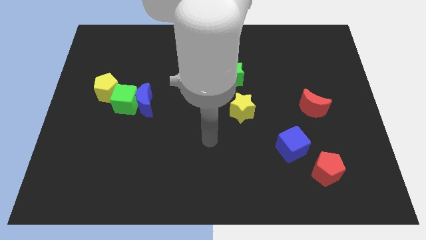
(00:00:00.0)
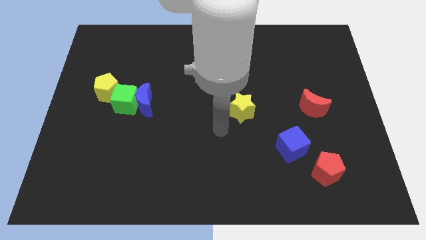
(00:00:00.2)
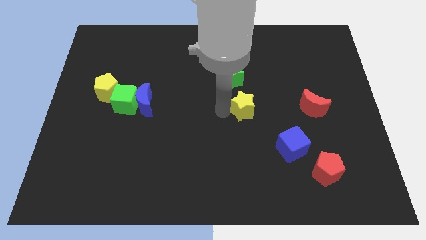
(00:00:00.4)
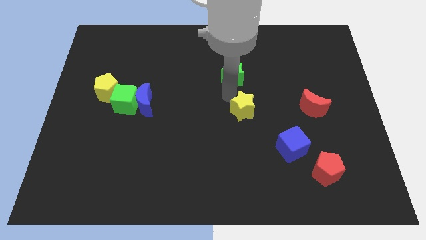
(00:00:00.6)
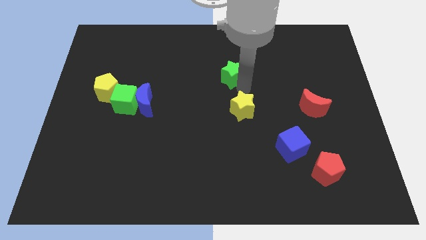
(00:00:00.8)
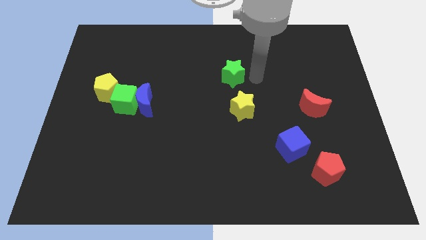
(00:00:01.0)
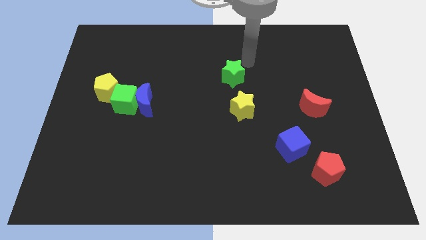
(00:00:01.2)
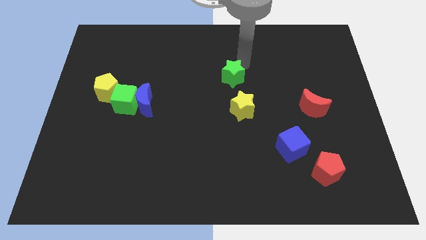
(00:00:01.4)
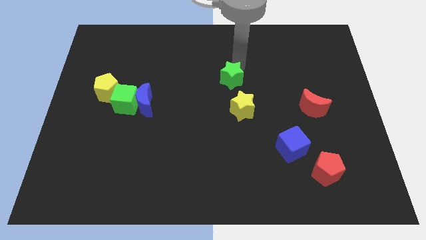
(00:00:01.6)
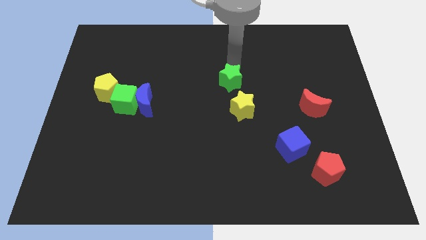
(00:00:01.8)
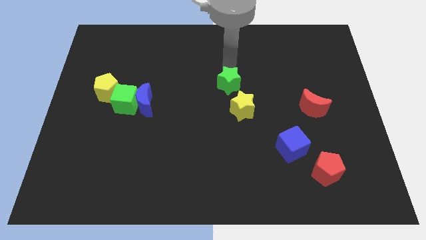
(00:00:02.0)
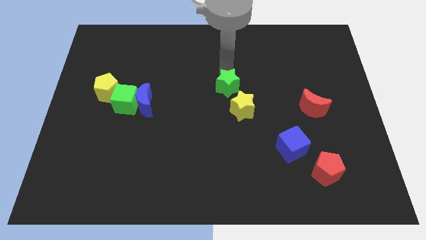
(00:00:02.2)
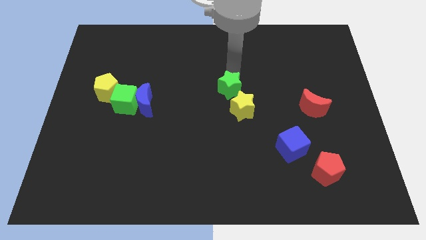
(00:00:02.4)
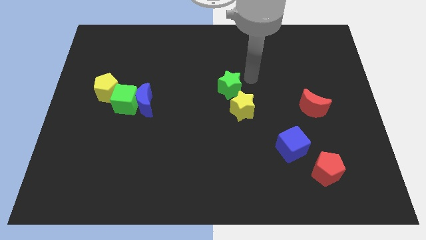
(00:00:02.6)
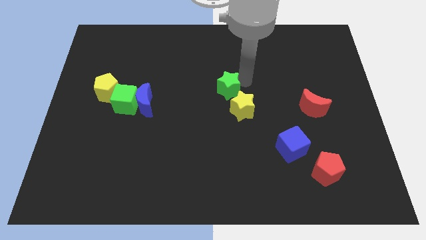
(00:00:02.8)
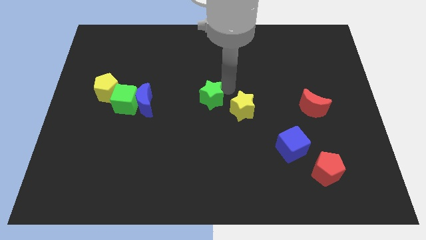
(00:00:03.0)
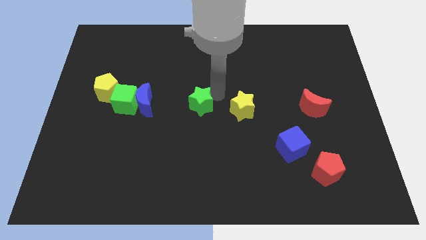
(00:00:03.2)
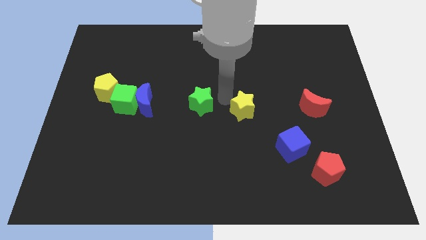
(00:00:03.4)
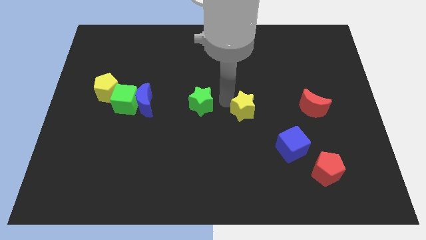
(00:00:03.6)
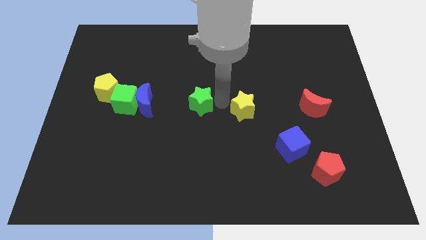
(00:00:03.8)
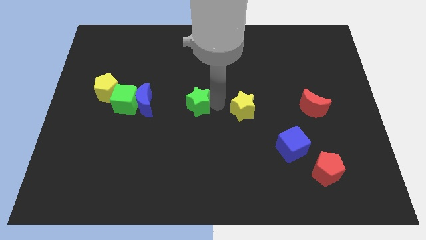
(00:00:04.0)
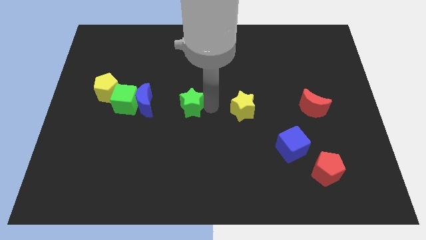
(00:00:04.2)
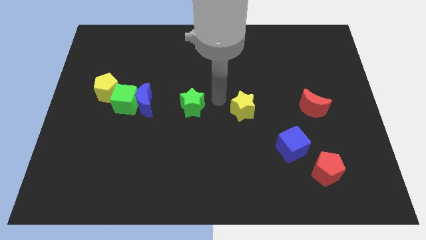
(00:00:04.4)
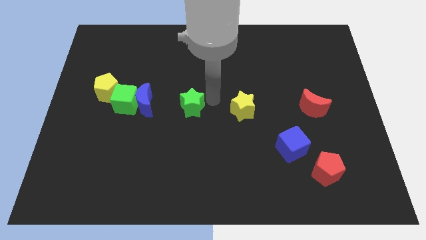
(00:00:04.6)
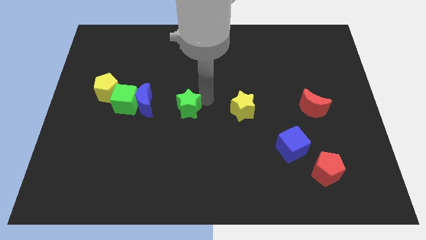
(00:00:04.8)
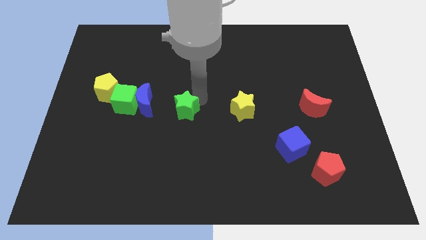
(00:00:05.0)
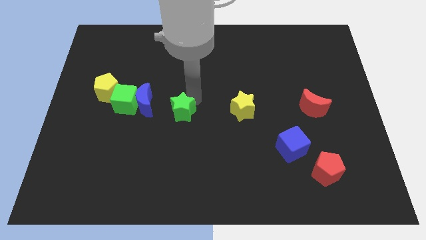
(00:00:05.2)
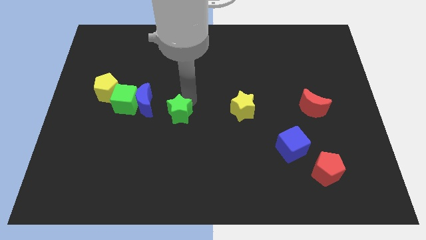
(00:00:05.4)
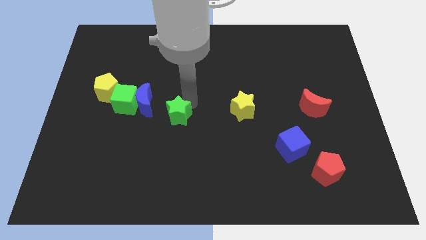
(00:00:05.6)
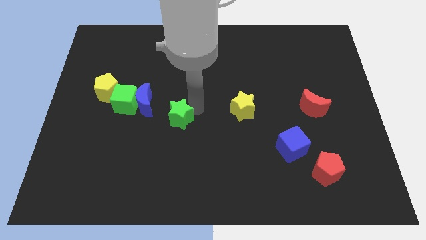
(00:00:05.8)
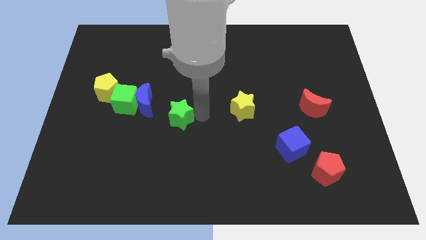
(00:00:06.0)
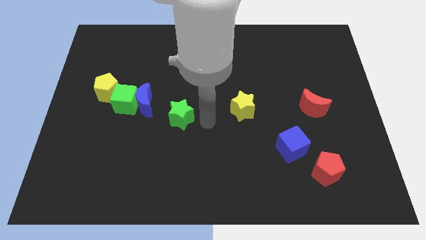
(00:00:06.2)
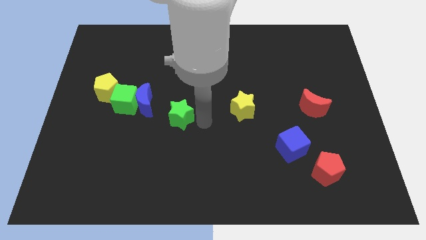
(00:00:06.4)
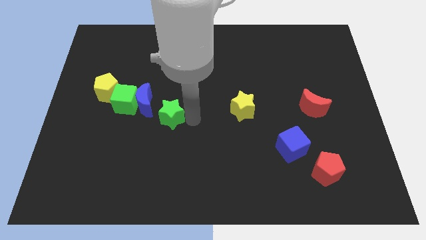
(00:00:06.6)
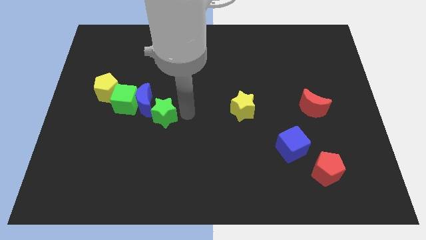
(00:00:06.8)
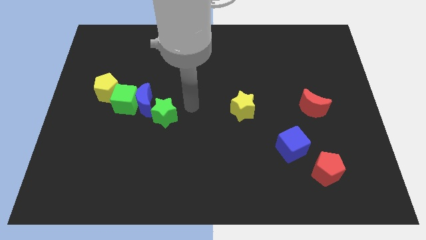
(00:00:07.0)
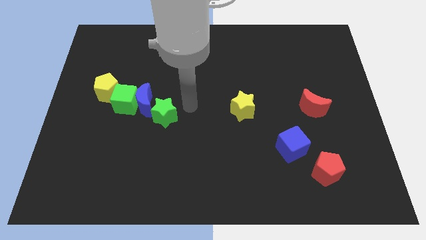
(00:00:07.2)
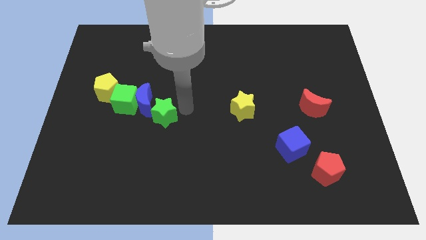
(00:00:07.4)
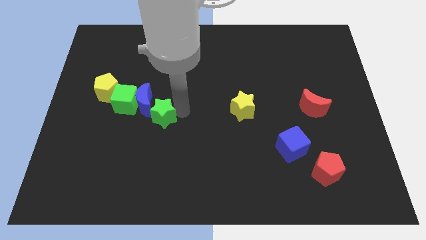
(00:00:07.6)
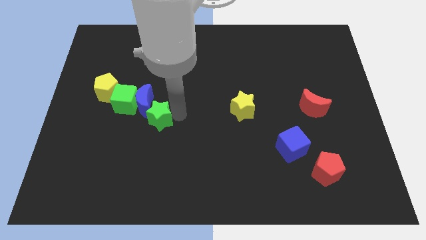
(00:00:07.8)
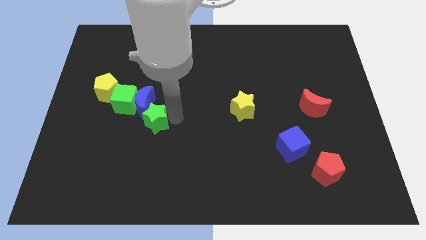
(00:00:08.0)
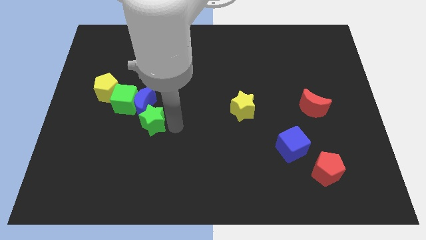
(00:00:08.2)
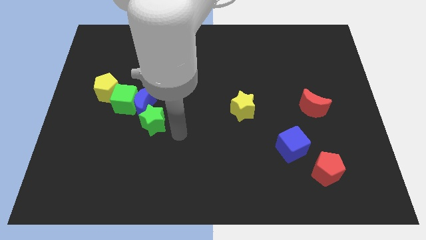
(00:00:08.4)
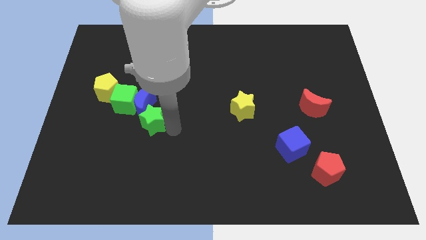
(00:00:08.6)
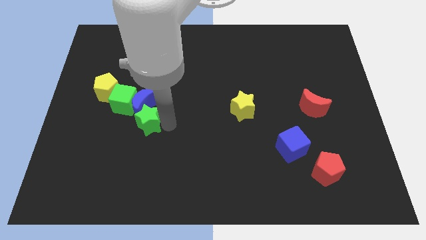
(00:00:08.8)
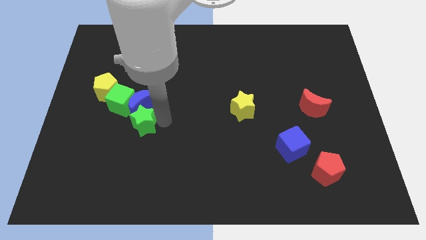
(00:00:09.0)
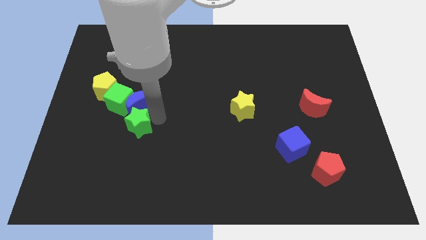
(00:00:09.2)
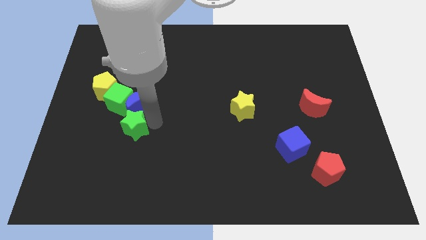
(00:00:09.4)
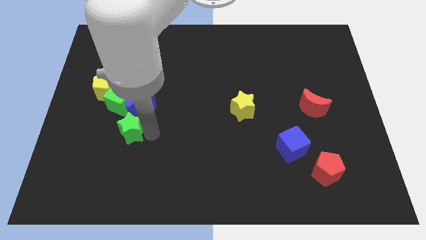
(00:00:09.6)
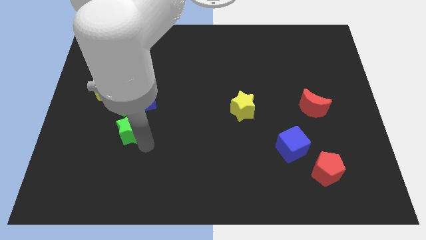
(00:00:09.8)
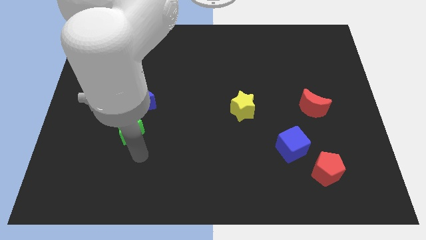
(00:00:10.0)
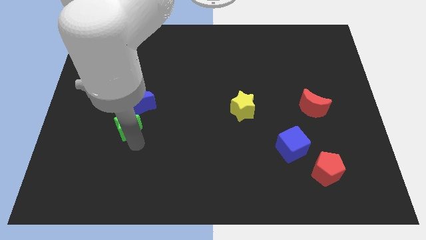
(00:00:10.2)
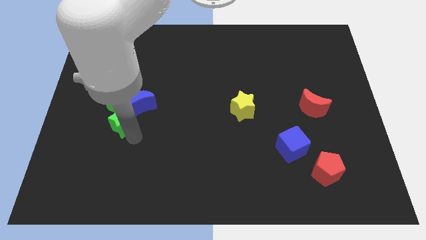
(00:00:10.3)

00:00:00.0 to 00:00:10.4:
push the green star to the bottom right of the yellow pentagon

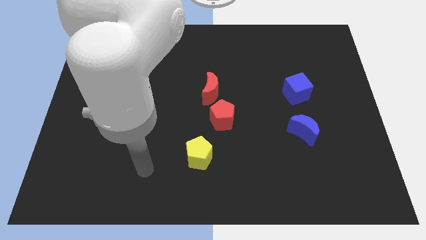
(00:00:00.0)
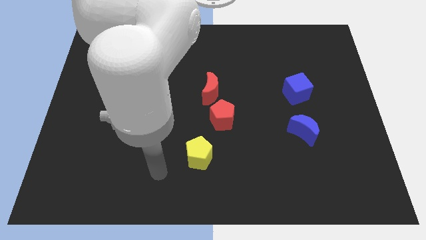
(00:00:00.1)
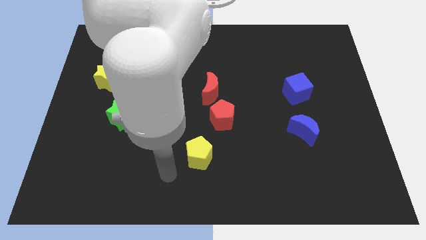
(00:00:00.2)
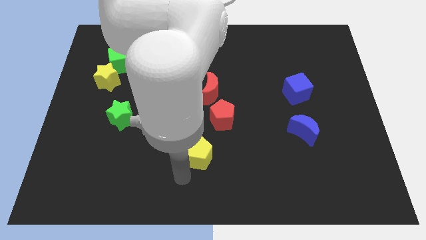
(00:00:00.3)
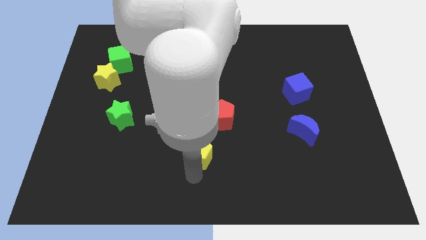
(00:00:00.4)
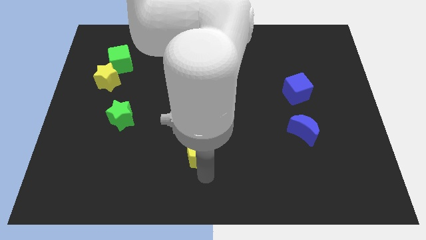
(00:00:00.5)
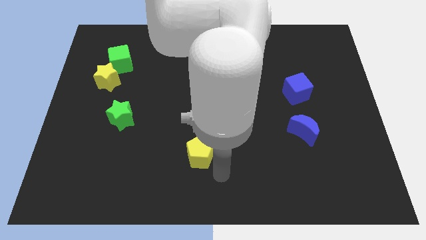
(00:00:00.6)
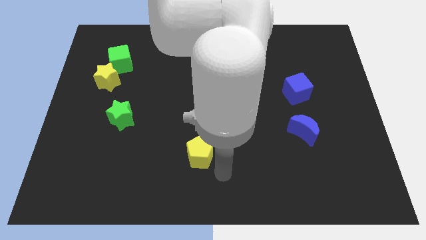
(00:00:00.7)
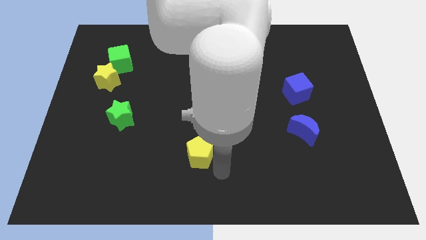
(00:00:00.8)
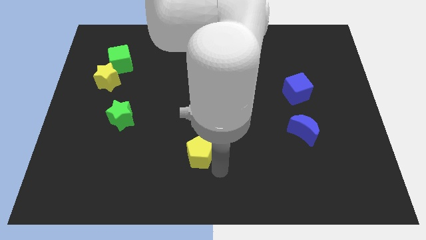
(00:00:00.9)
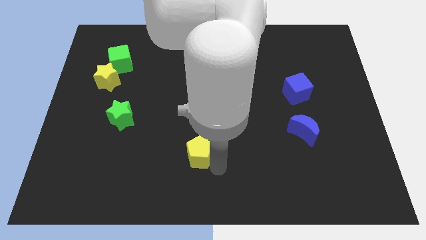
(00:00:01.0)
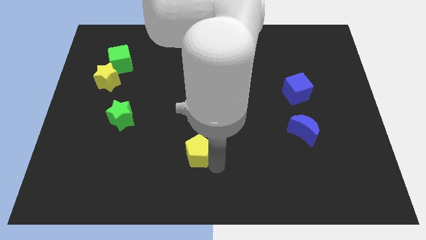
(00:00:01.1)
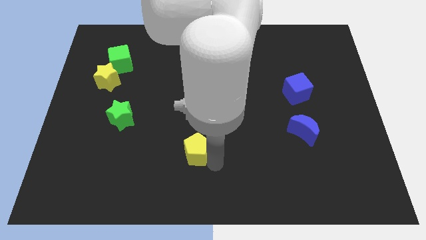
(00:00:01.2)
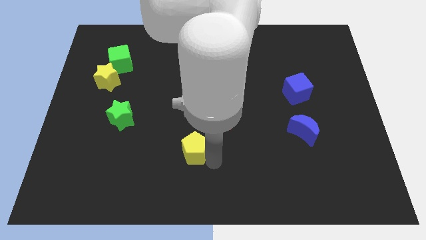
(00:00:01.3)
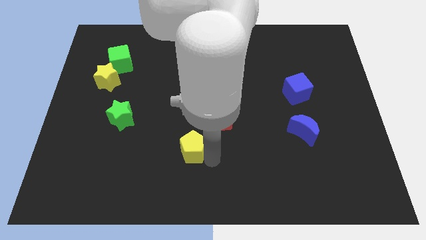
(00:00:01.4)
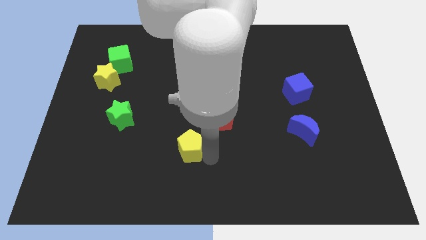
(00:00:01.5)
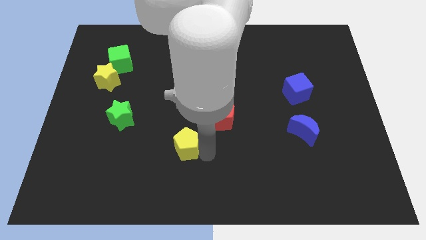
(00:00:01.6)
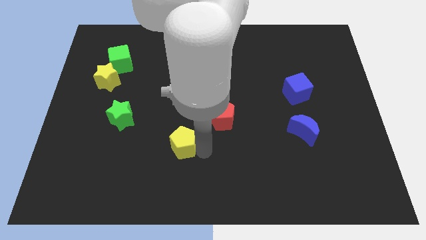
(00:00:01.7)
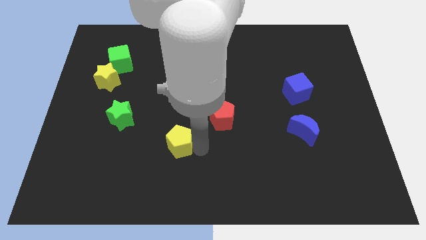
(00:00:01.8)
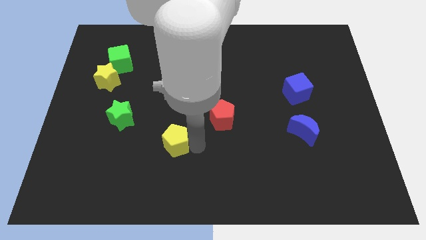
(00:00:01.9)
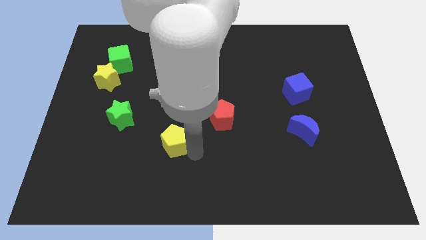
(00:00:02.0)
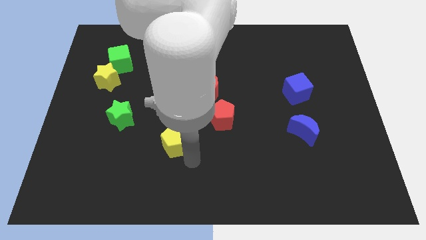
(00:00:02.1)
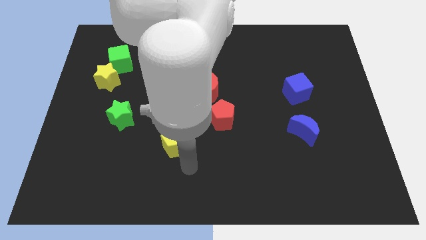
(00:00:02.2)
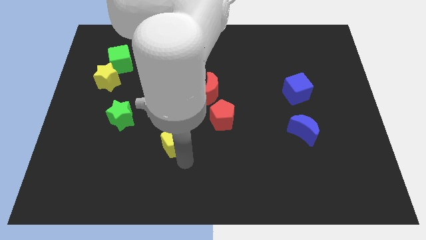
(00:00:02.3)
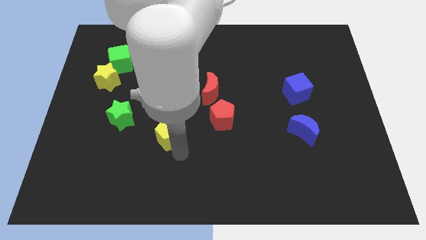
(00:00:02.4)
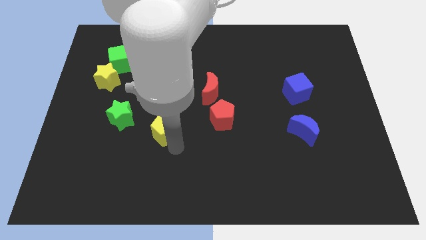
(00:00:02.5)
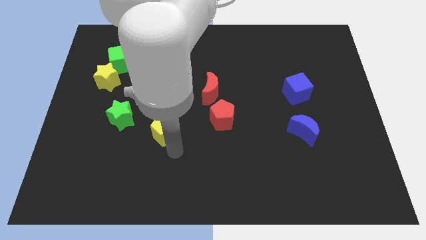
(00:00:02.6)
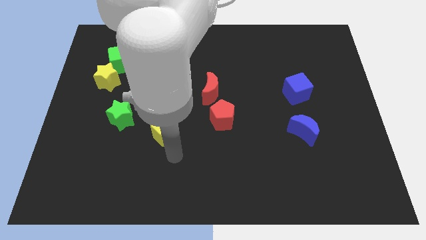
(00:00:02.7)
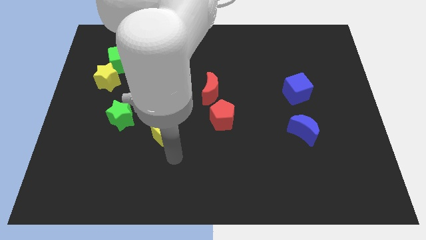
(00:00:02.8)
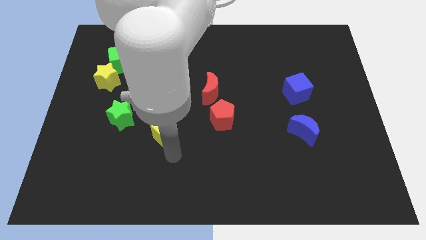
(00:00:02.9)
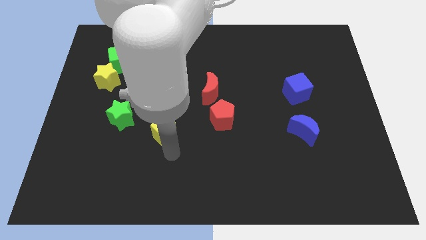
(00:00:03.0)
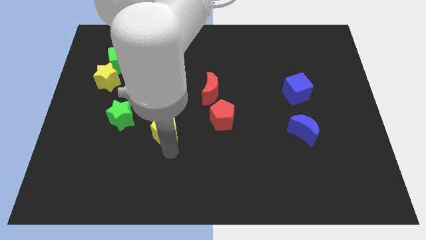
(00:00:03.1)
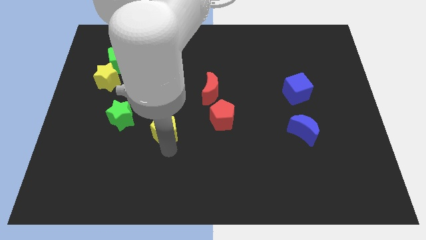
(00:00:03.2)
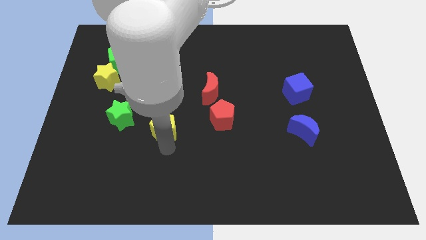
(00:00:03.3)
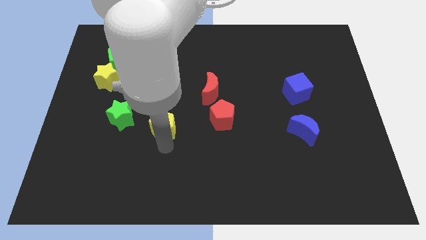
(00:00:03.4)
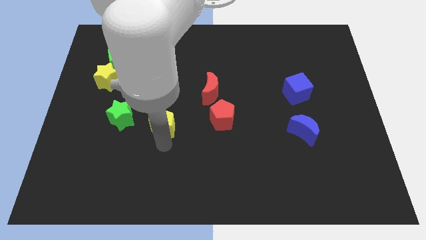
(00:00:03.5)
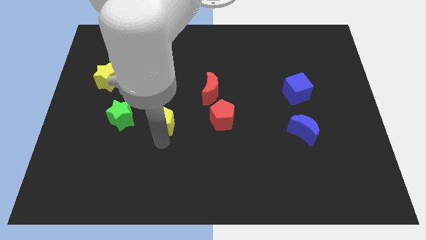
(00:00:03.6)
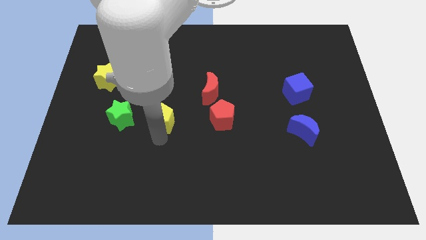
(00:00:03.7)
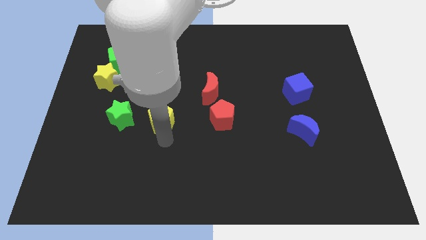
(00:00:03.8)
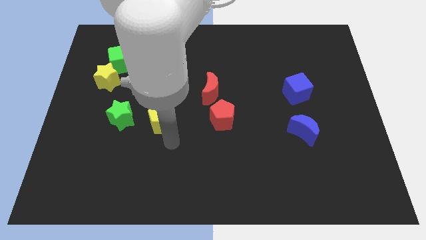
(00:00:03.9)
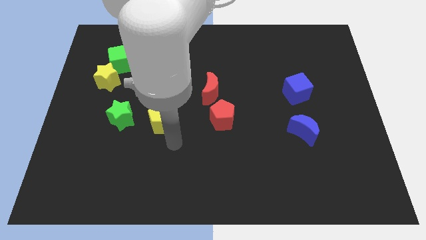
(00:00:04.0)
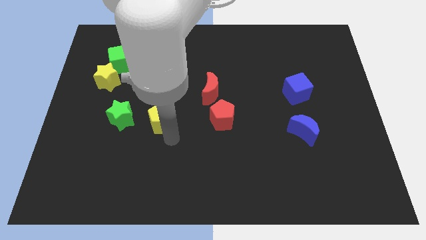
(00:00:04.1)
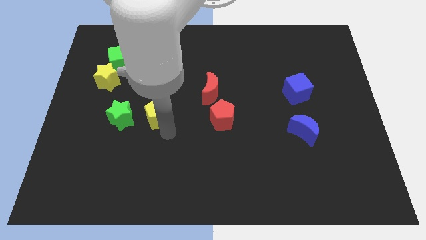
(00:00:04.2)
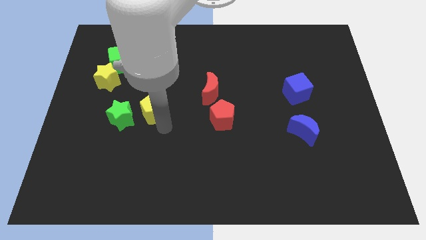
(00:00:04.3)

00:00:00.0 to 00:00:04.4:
move the yellow pentagon to the top right of the green star
